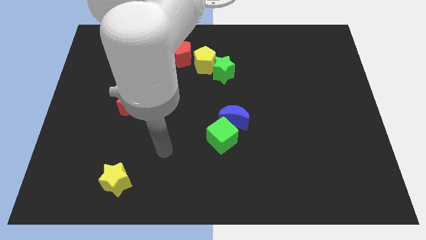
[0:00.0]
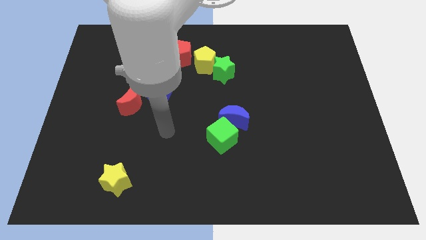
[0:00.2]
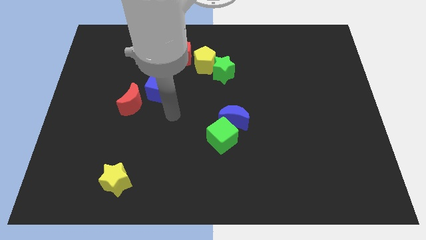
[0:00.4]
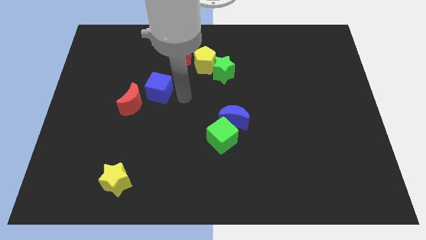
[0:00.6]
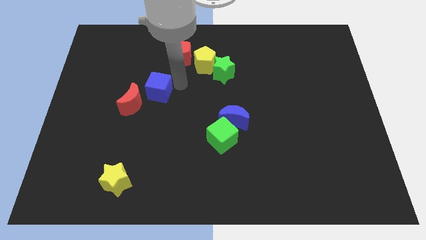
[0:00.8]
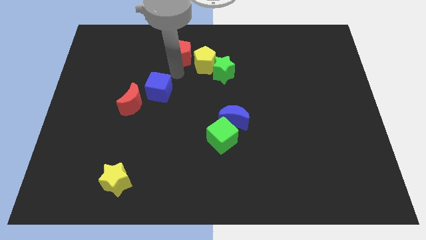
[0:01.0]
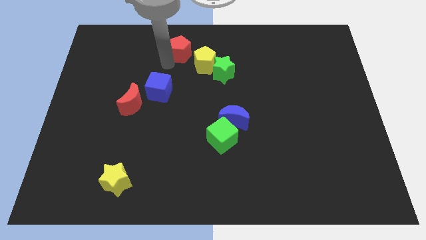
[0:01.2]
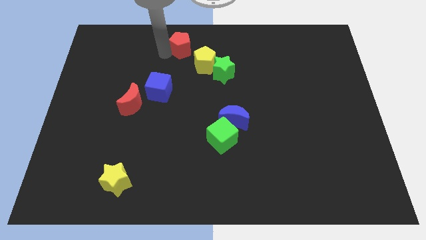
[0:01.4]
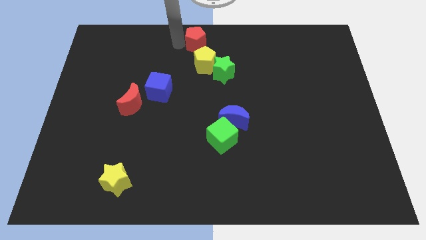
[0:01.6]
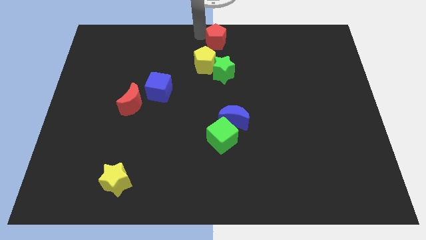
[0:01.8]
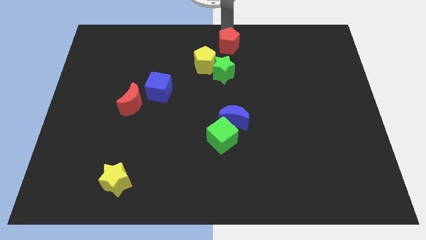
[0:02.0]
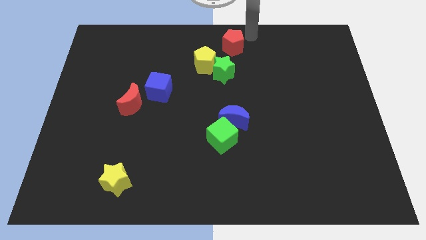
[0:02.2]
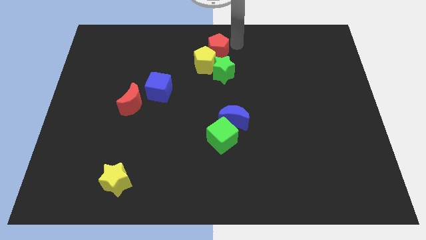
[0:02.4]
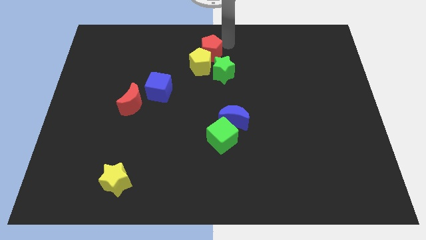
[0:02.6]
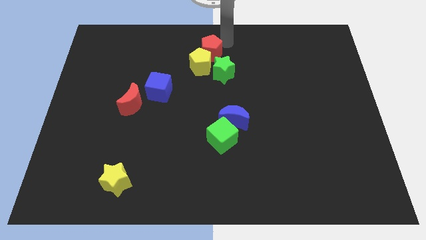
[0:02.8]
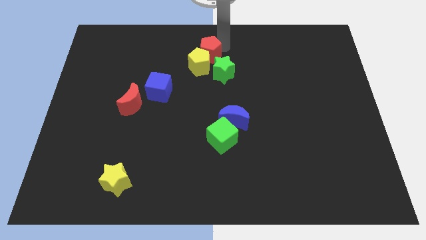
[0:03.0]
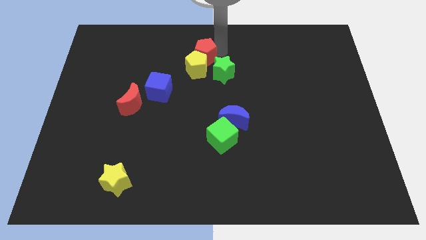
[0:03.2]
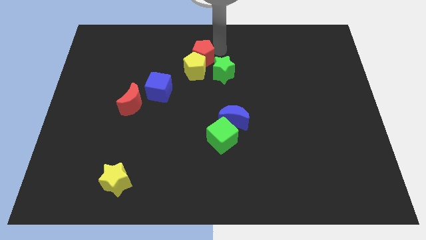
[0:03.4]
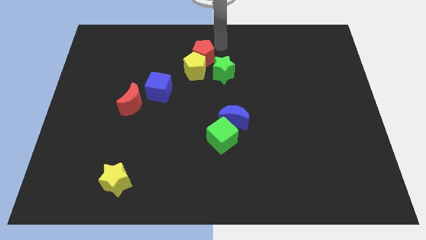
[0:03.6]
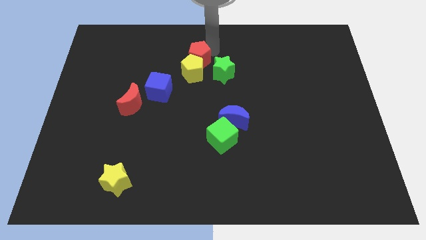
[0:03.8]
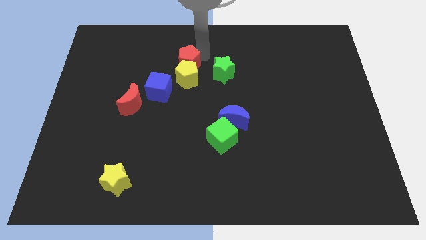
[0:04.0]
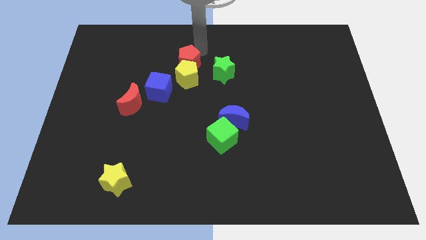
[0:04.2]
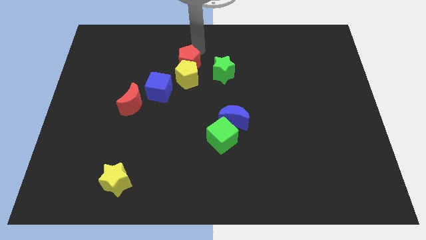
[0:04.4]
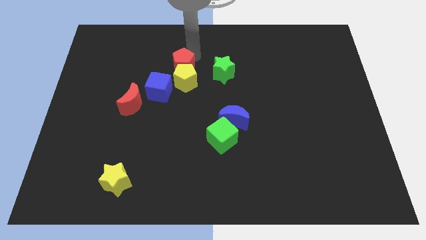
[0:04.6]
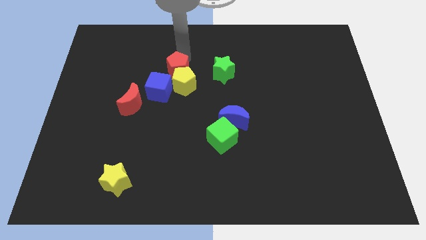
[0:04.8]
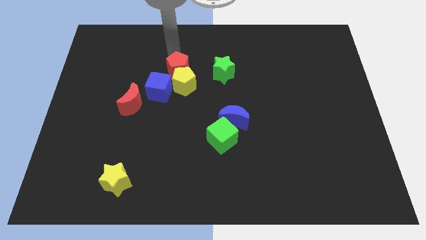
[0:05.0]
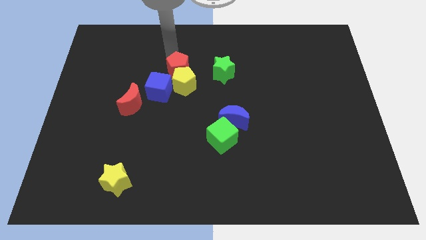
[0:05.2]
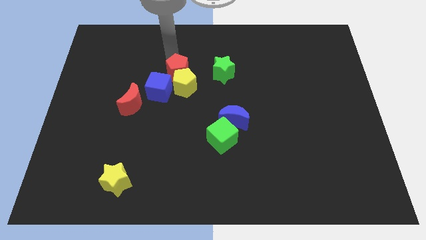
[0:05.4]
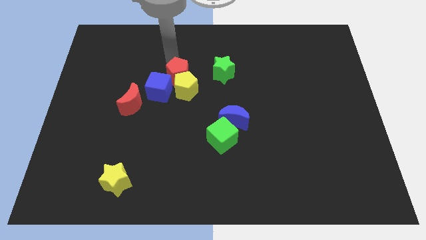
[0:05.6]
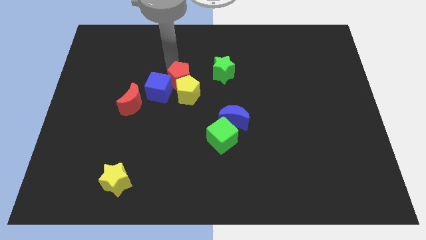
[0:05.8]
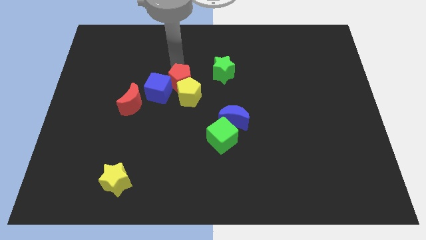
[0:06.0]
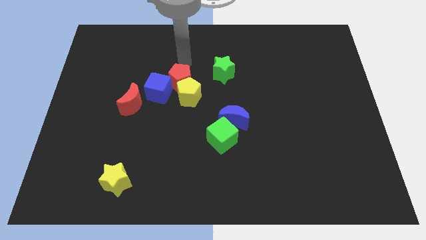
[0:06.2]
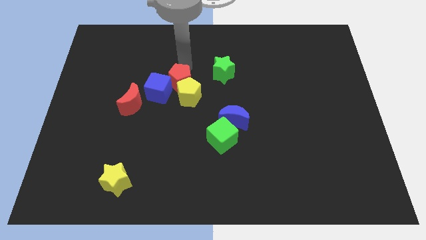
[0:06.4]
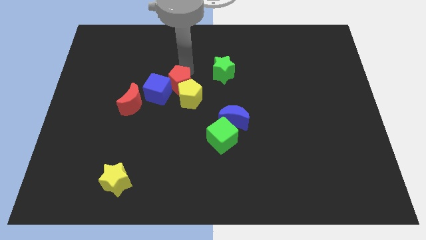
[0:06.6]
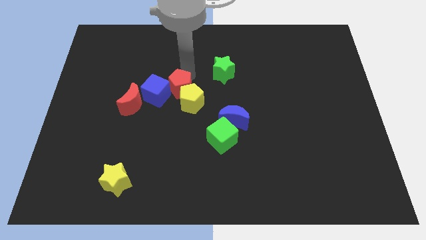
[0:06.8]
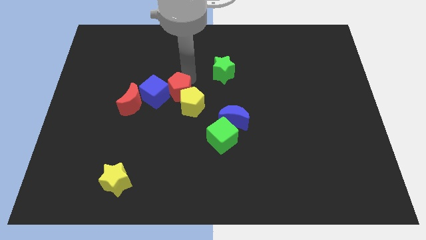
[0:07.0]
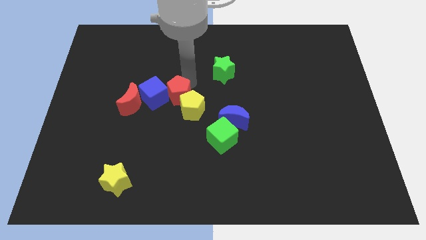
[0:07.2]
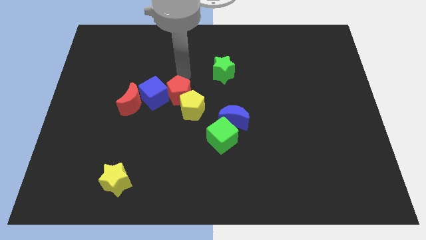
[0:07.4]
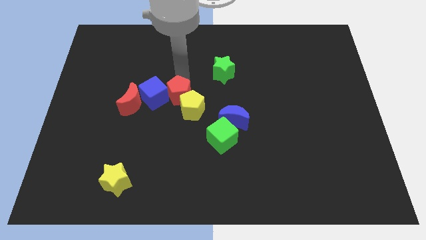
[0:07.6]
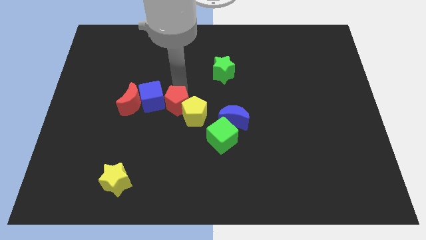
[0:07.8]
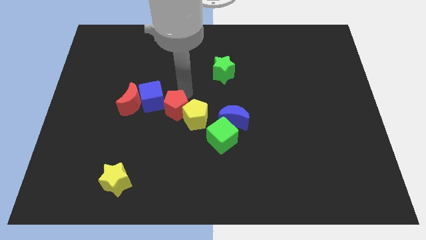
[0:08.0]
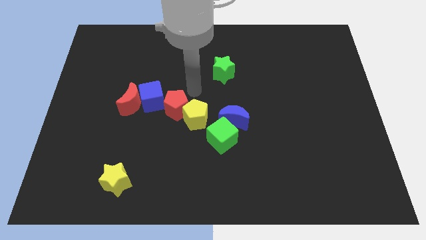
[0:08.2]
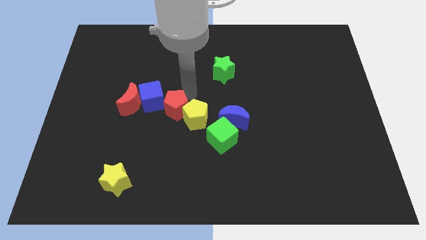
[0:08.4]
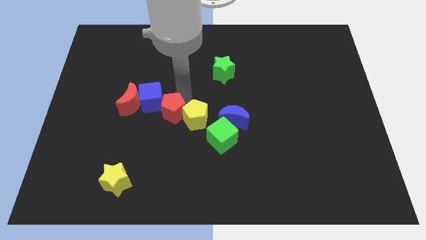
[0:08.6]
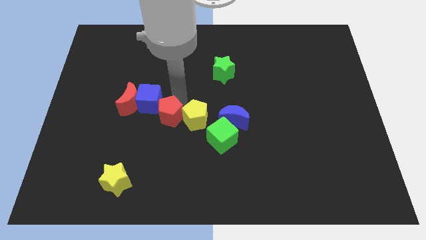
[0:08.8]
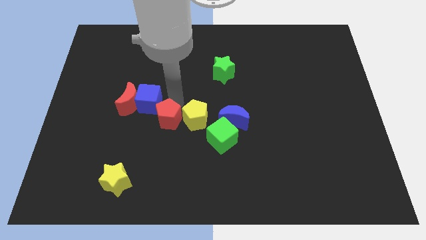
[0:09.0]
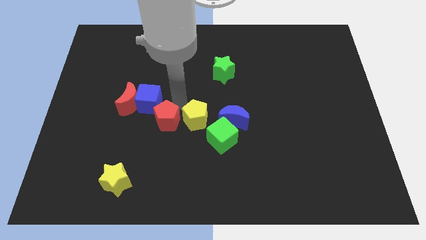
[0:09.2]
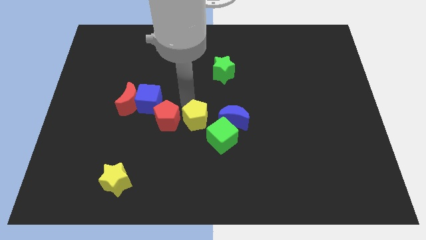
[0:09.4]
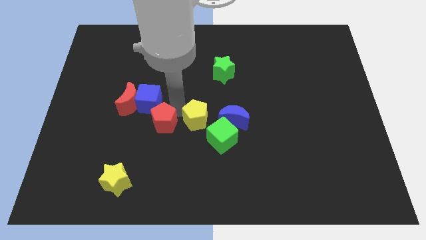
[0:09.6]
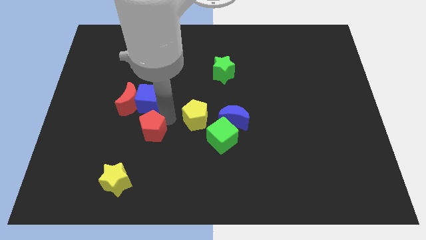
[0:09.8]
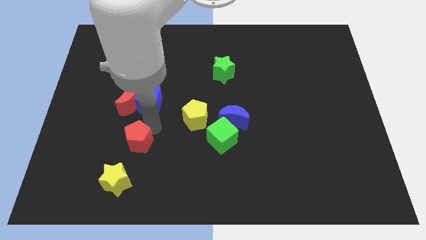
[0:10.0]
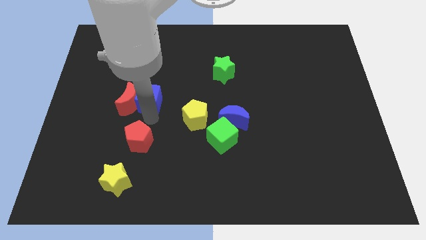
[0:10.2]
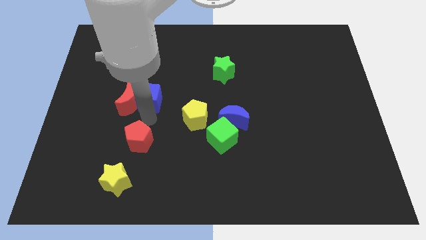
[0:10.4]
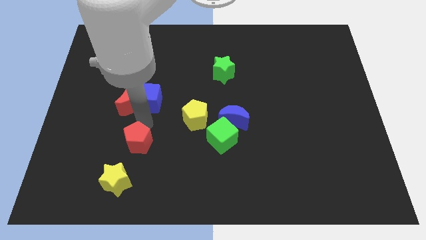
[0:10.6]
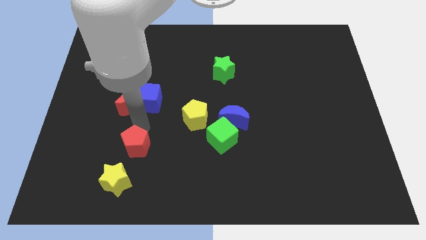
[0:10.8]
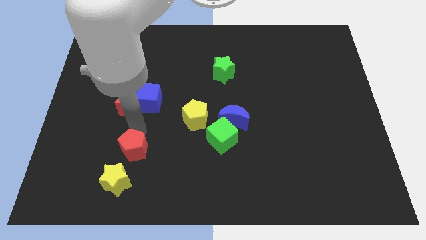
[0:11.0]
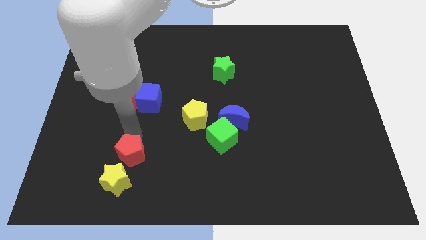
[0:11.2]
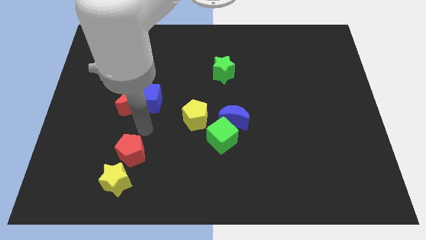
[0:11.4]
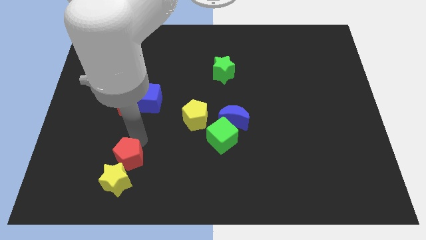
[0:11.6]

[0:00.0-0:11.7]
put the red pentagon towards the yellow star

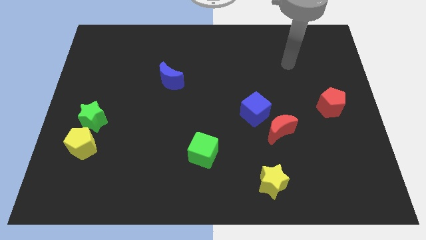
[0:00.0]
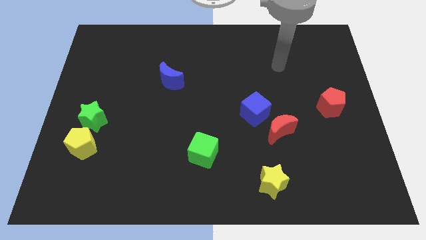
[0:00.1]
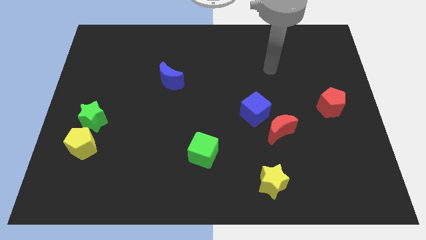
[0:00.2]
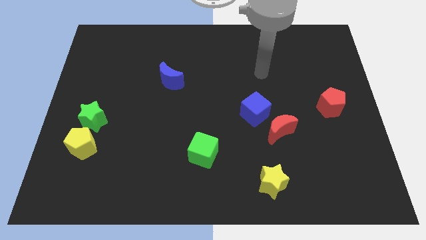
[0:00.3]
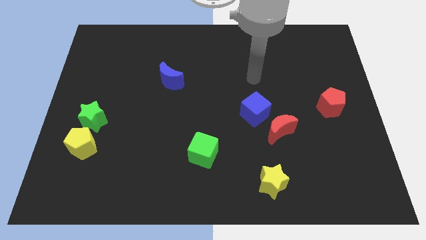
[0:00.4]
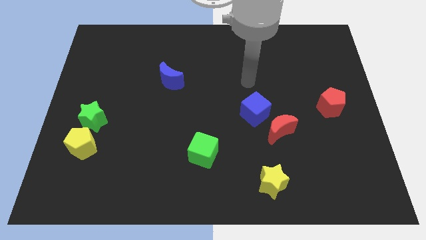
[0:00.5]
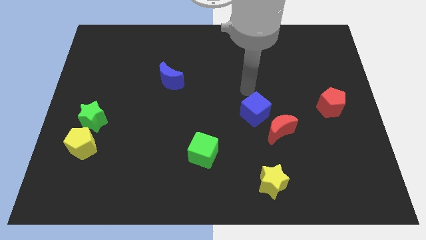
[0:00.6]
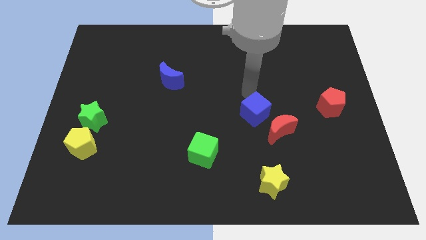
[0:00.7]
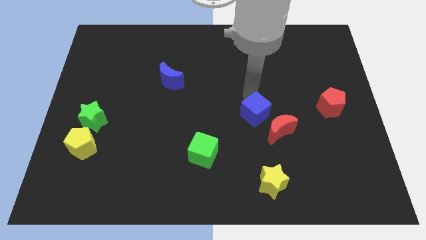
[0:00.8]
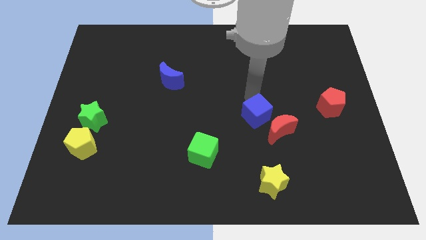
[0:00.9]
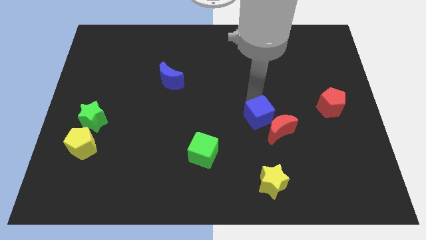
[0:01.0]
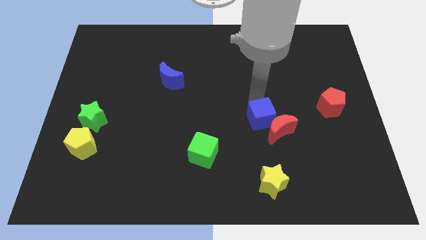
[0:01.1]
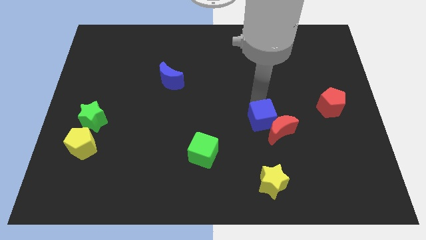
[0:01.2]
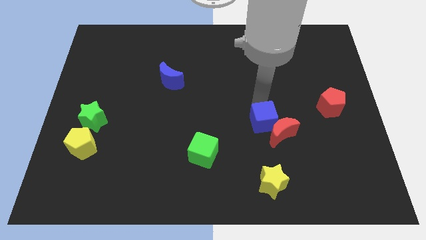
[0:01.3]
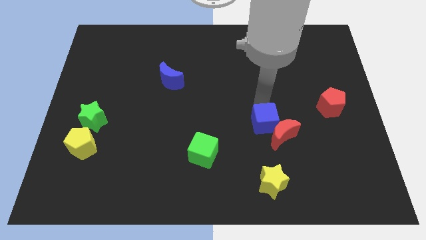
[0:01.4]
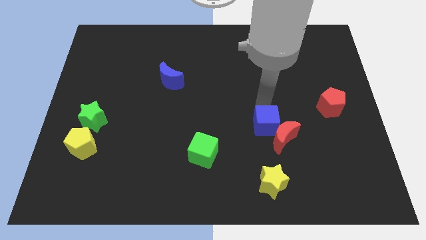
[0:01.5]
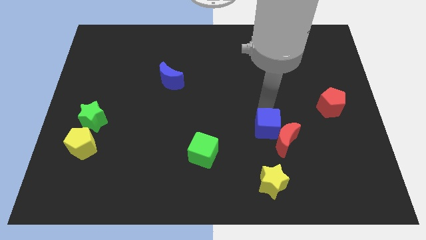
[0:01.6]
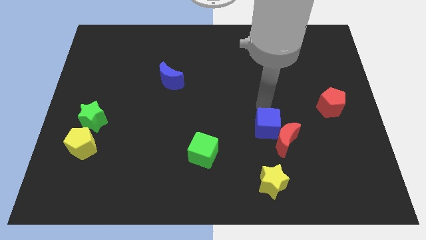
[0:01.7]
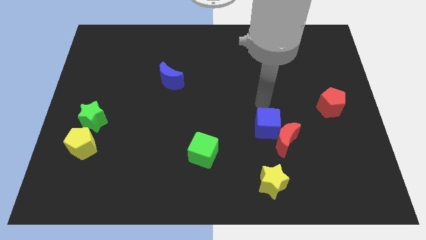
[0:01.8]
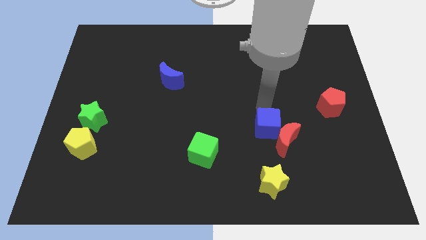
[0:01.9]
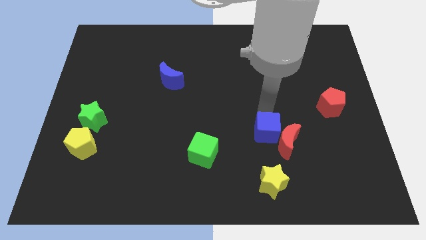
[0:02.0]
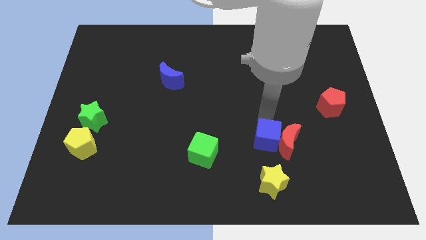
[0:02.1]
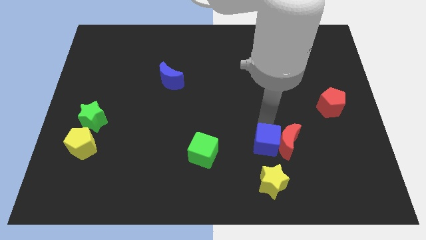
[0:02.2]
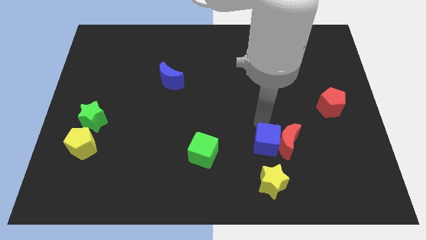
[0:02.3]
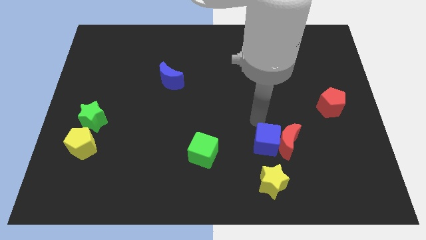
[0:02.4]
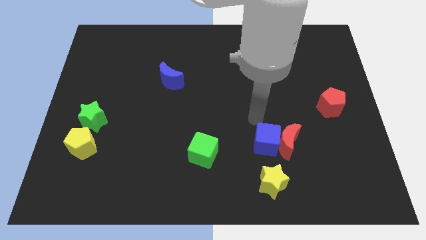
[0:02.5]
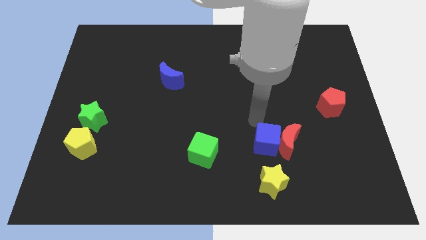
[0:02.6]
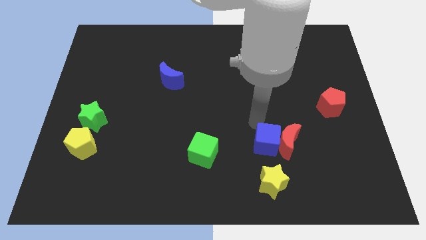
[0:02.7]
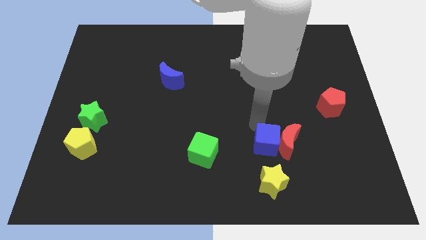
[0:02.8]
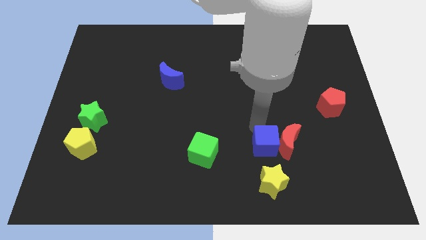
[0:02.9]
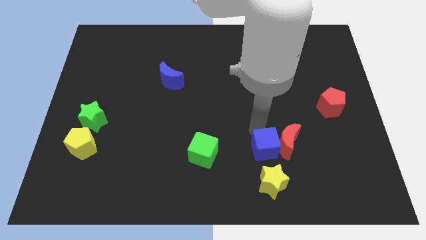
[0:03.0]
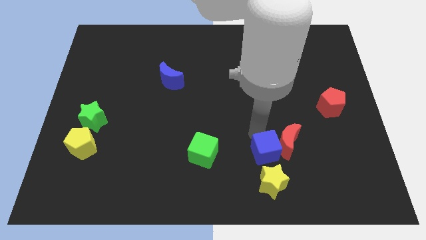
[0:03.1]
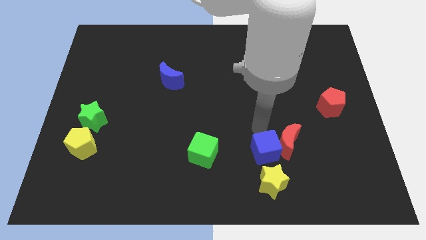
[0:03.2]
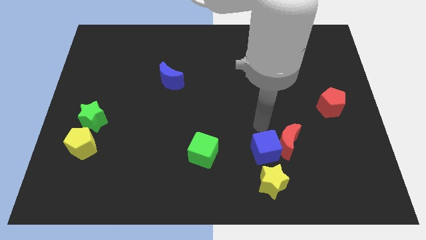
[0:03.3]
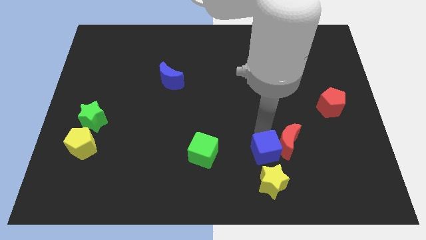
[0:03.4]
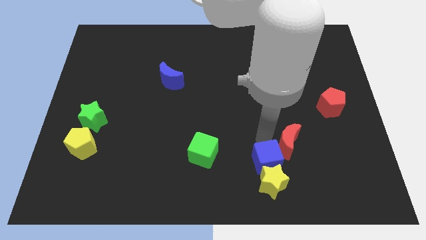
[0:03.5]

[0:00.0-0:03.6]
slide the blue cube next to the yellow star
